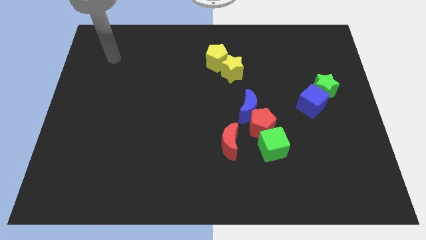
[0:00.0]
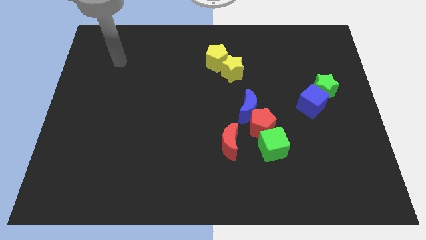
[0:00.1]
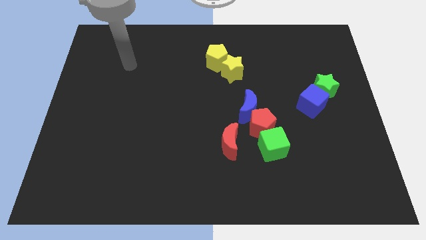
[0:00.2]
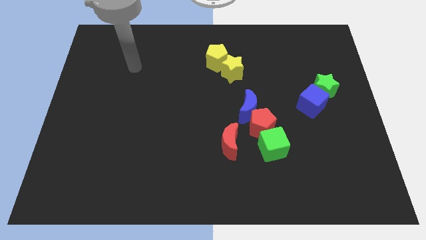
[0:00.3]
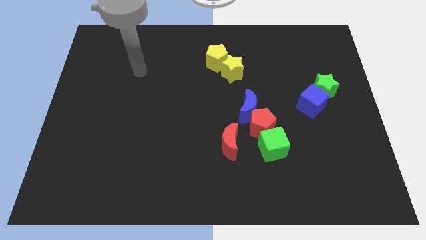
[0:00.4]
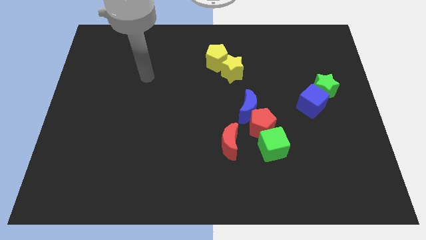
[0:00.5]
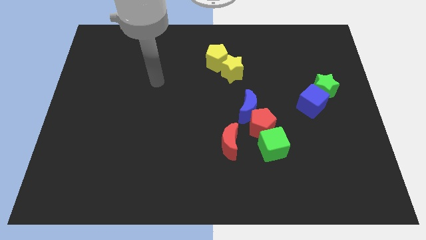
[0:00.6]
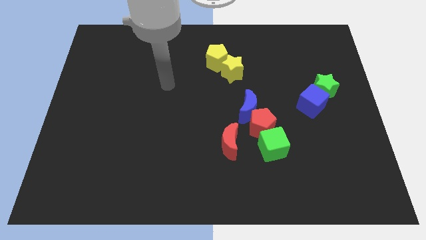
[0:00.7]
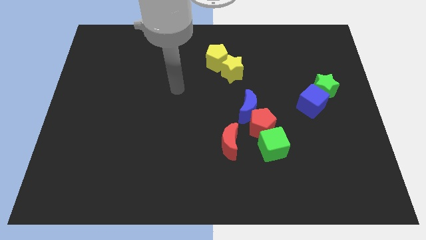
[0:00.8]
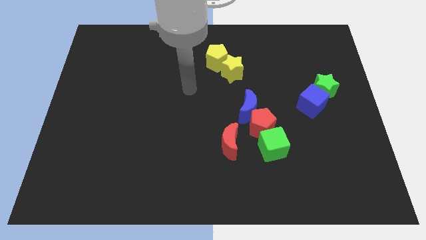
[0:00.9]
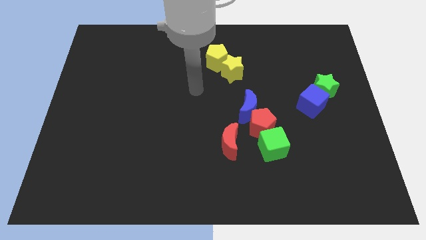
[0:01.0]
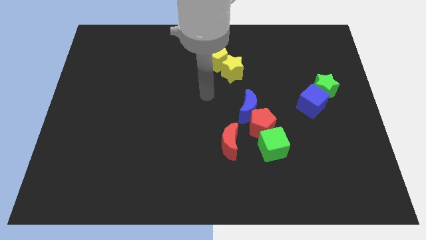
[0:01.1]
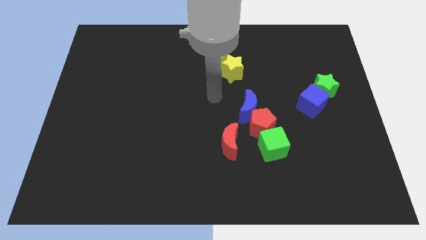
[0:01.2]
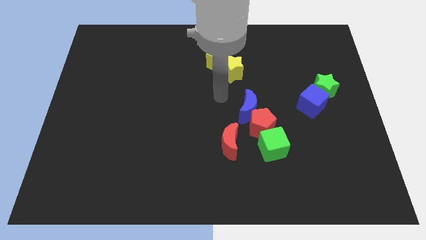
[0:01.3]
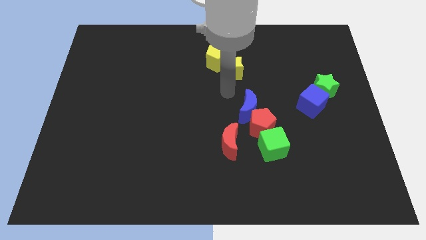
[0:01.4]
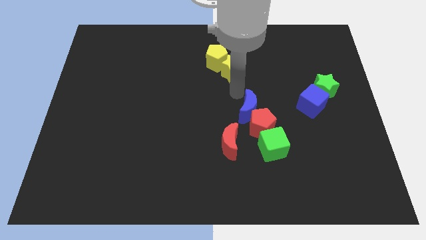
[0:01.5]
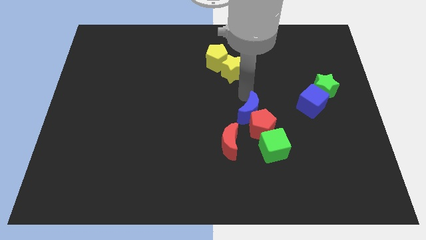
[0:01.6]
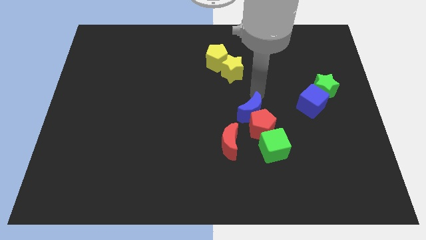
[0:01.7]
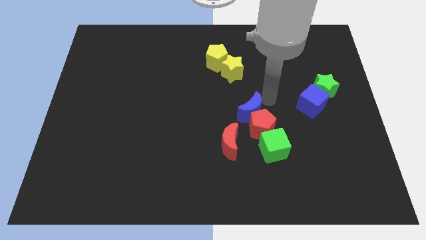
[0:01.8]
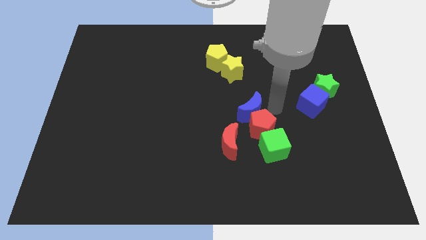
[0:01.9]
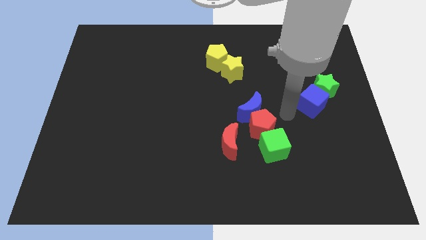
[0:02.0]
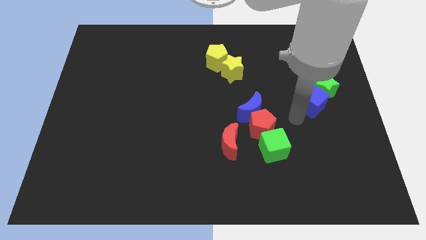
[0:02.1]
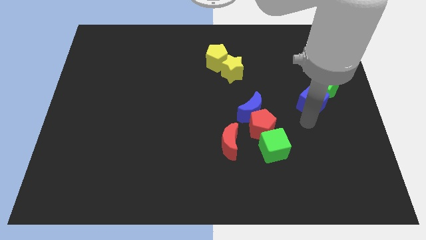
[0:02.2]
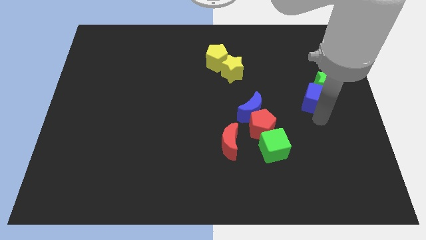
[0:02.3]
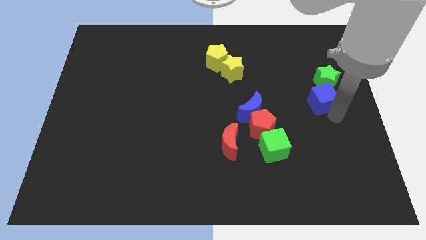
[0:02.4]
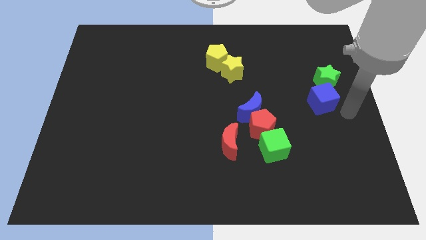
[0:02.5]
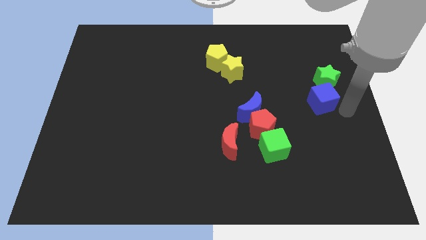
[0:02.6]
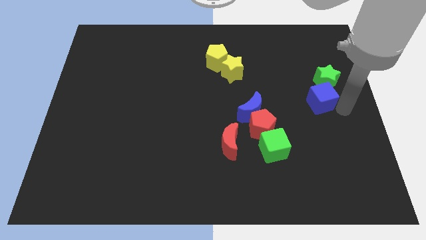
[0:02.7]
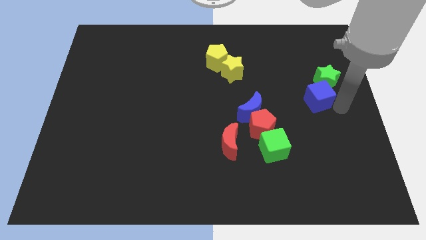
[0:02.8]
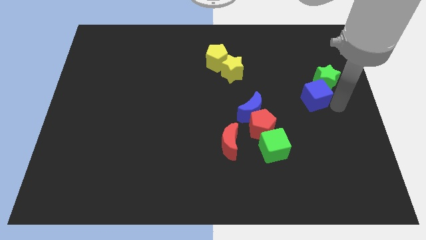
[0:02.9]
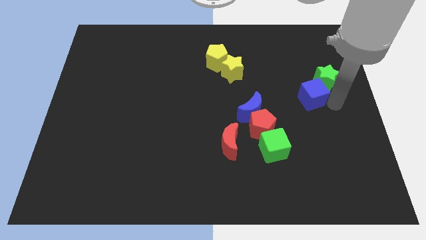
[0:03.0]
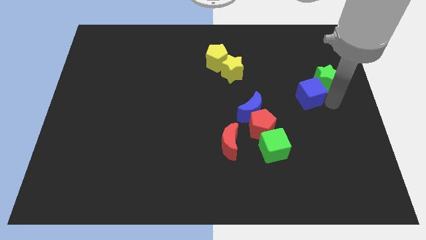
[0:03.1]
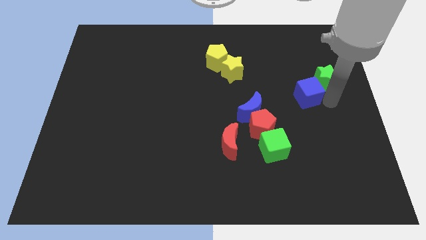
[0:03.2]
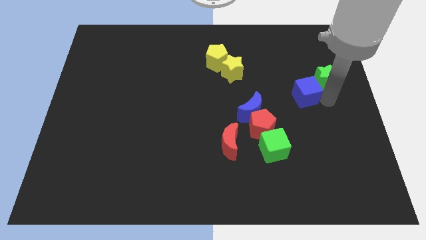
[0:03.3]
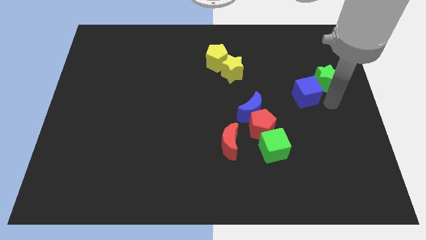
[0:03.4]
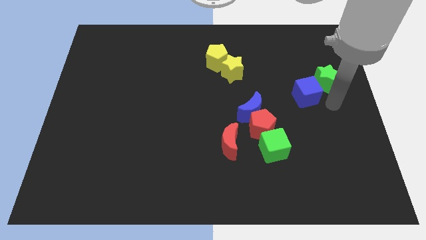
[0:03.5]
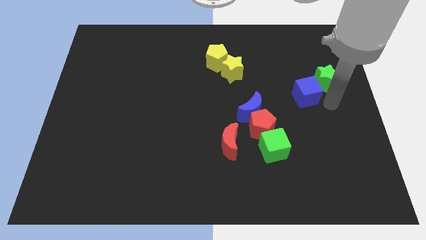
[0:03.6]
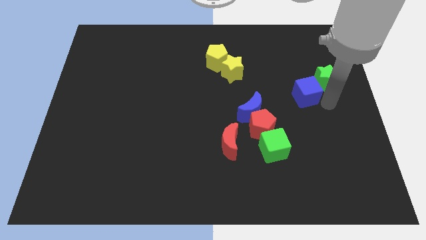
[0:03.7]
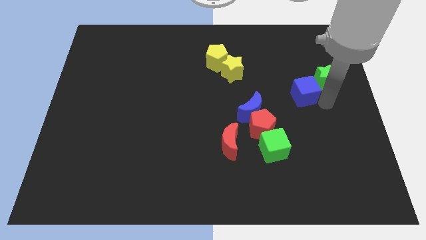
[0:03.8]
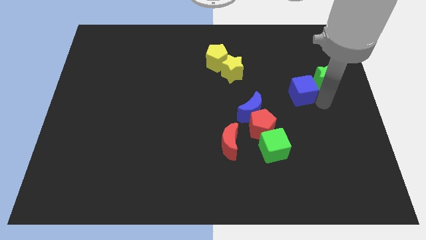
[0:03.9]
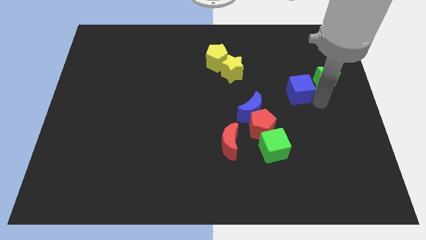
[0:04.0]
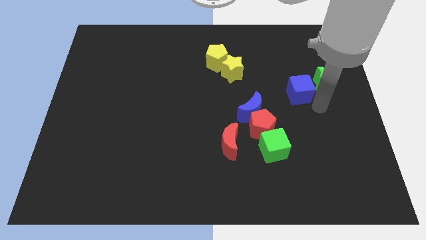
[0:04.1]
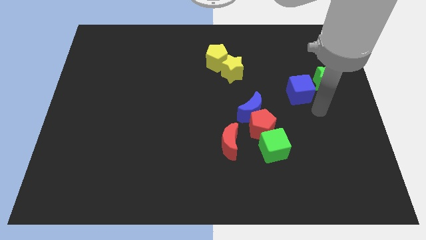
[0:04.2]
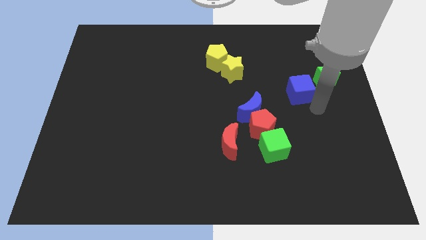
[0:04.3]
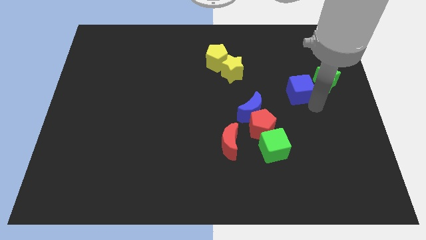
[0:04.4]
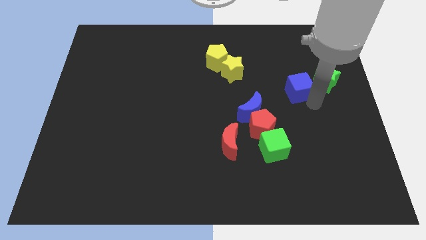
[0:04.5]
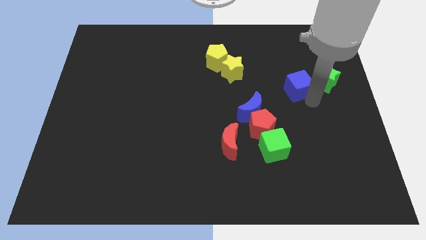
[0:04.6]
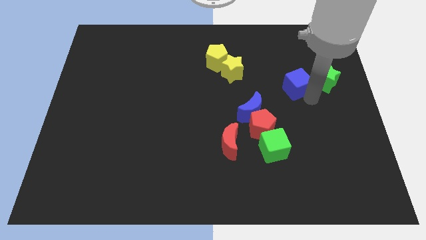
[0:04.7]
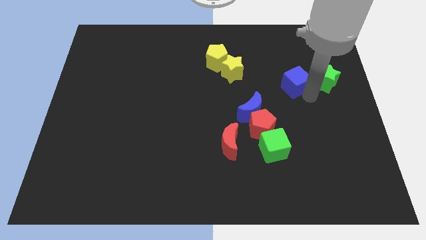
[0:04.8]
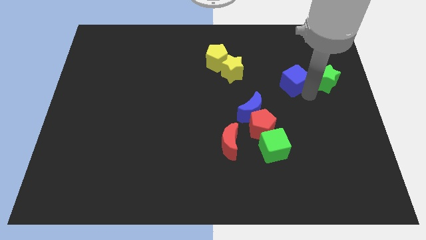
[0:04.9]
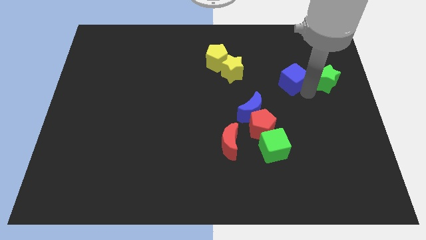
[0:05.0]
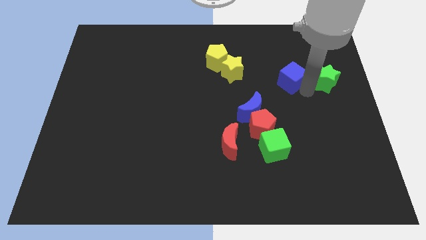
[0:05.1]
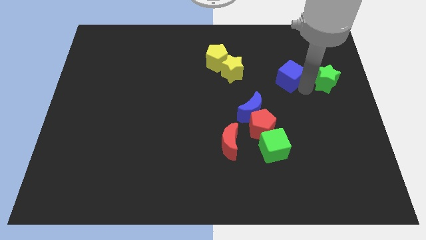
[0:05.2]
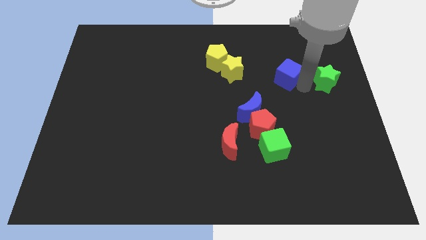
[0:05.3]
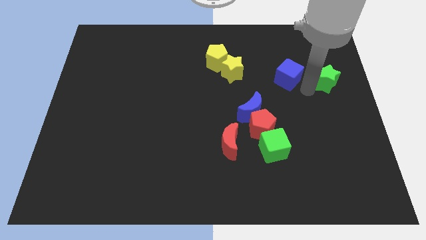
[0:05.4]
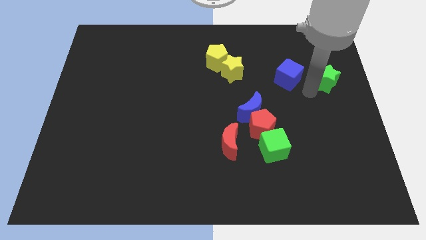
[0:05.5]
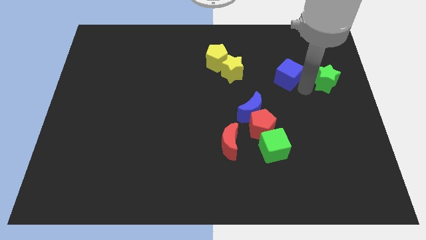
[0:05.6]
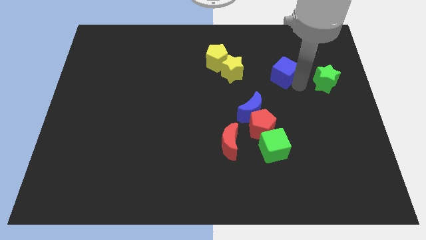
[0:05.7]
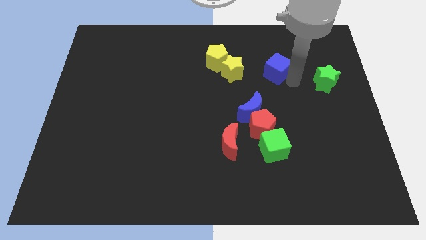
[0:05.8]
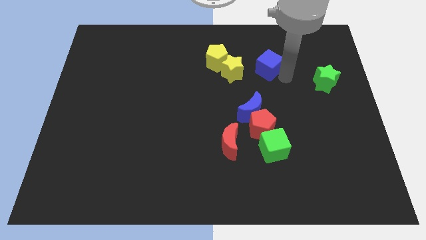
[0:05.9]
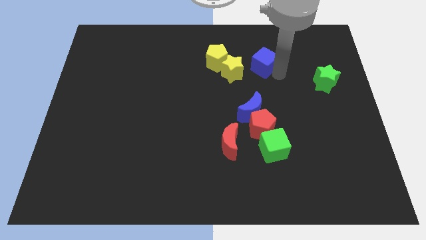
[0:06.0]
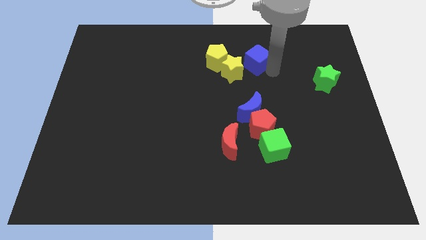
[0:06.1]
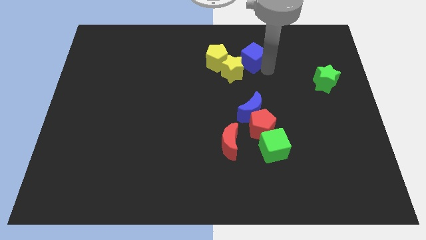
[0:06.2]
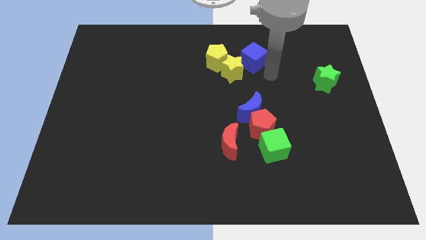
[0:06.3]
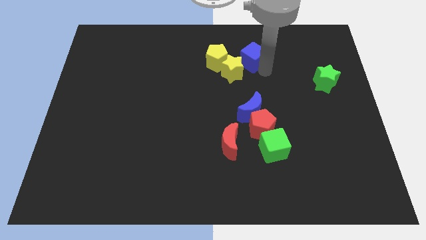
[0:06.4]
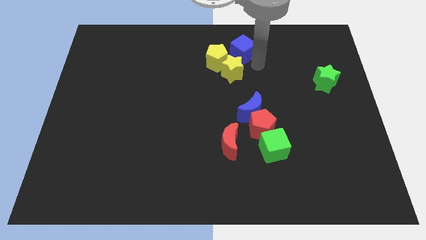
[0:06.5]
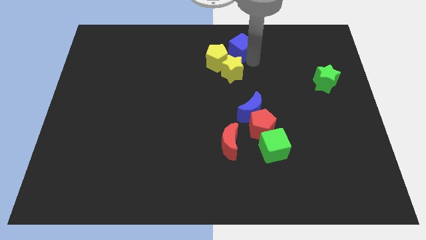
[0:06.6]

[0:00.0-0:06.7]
move the blue cube to the top
